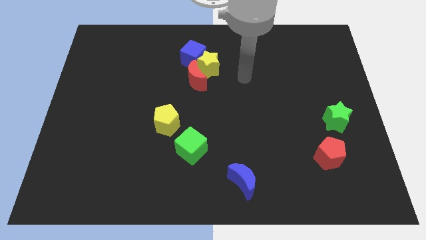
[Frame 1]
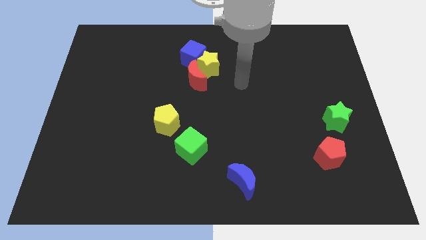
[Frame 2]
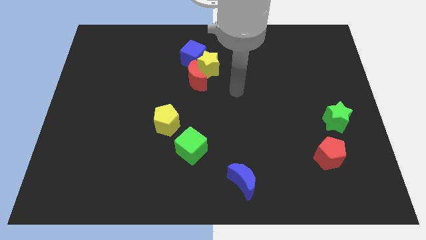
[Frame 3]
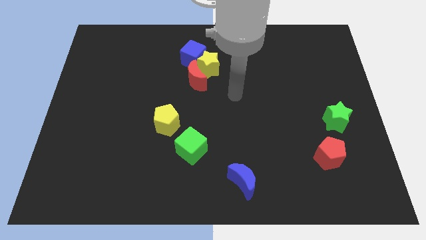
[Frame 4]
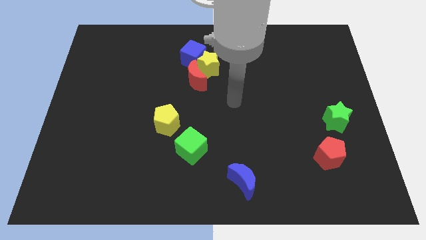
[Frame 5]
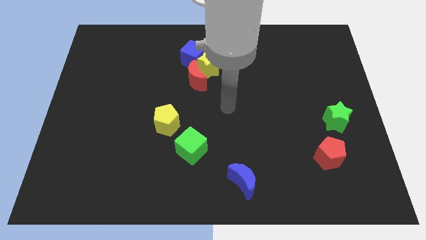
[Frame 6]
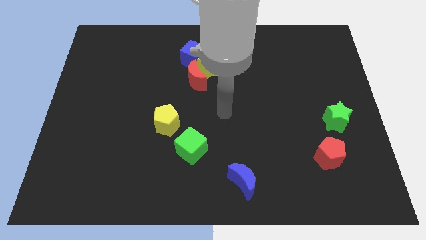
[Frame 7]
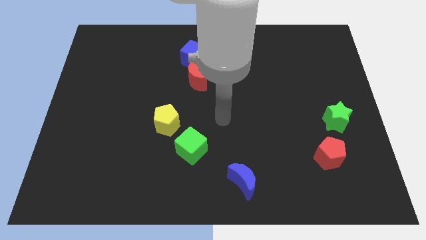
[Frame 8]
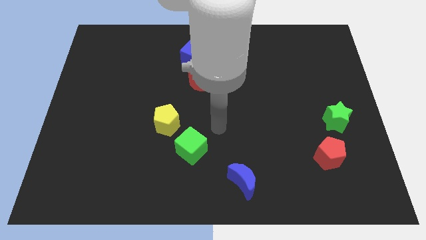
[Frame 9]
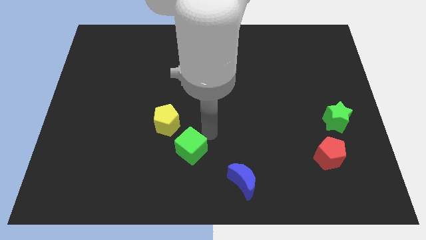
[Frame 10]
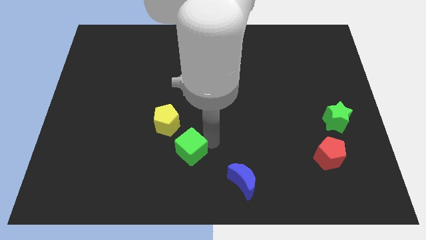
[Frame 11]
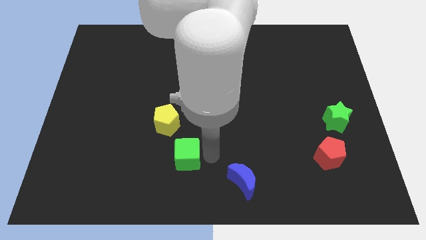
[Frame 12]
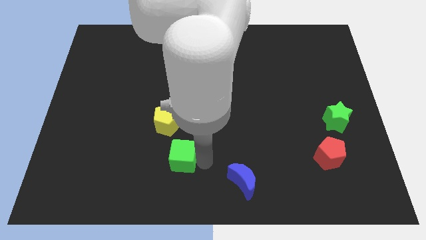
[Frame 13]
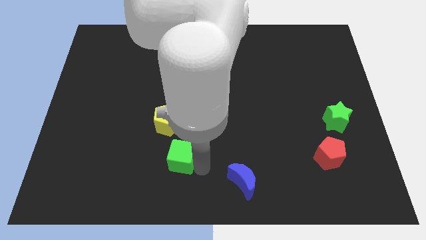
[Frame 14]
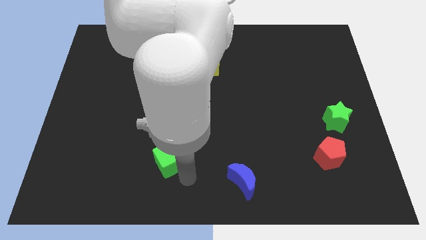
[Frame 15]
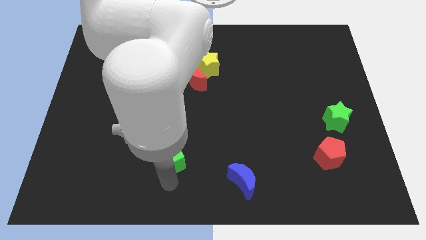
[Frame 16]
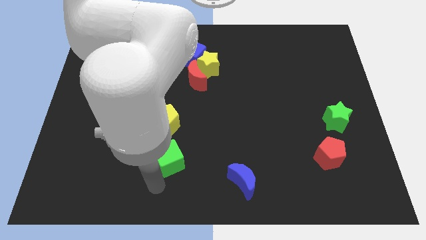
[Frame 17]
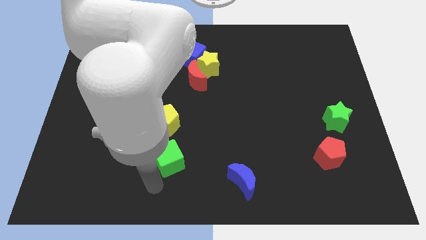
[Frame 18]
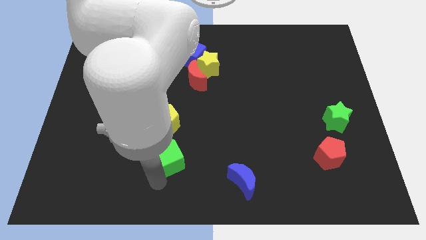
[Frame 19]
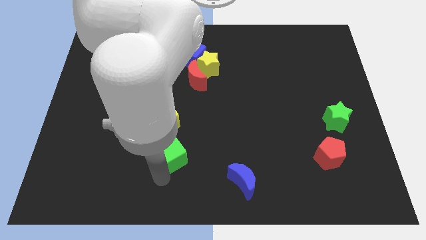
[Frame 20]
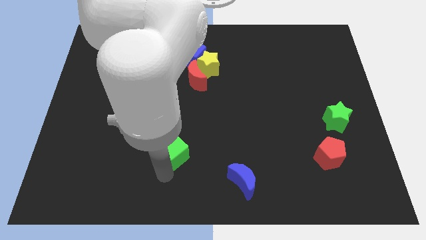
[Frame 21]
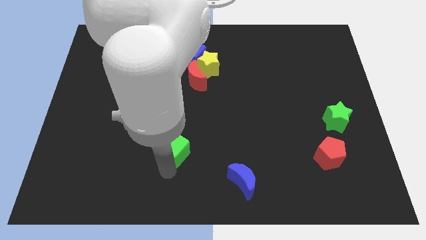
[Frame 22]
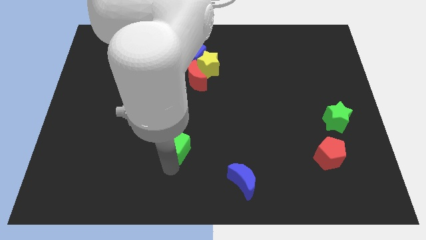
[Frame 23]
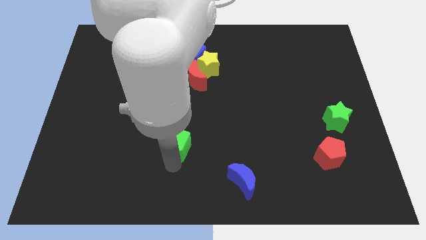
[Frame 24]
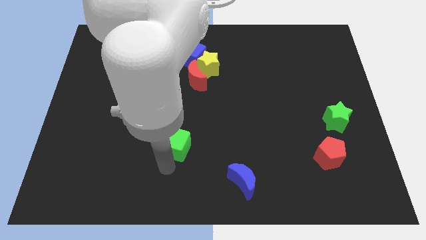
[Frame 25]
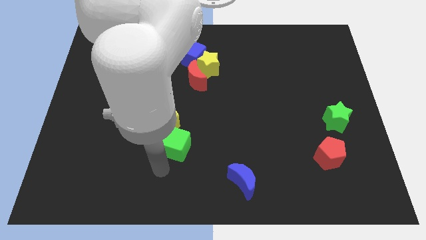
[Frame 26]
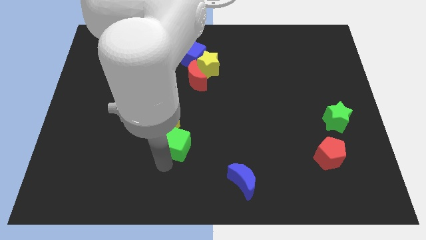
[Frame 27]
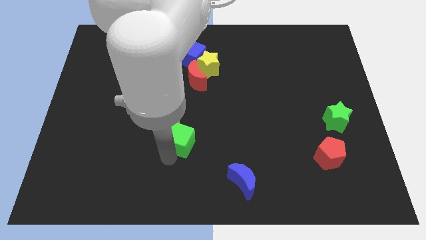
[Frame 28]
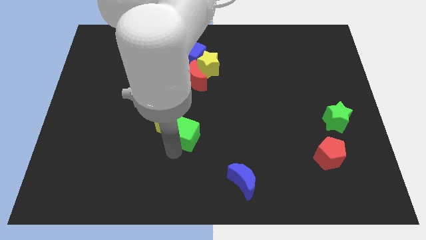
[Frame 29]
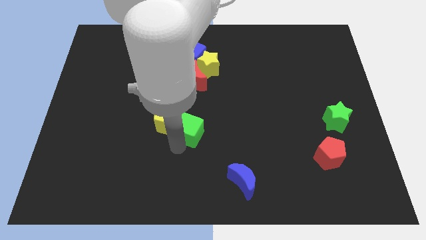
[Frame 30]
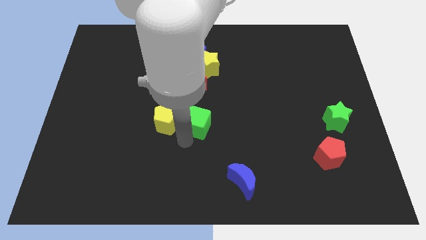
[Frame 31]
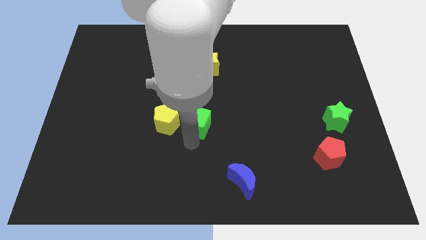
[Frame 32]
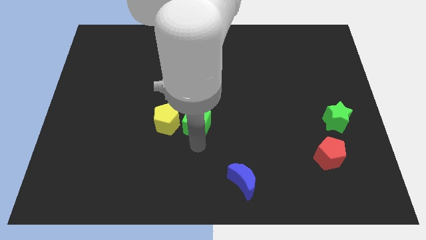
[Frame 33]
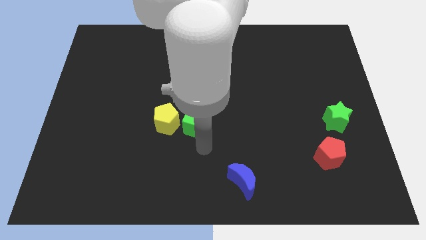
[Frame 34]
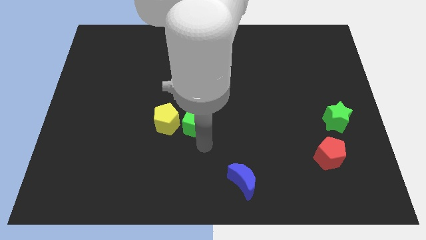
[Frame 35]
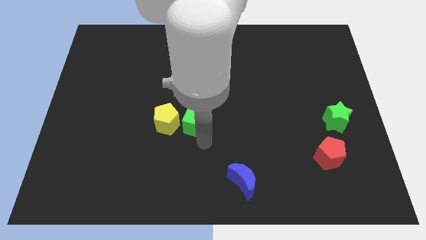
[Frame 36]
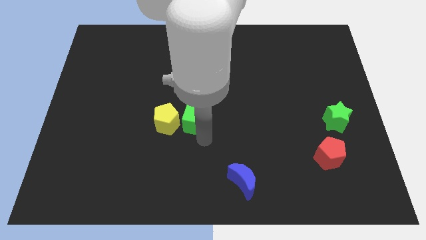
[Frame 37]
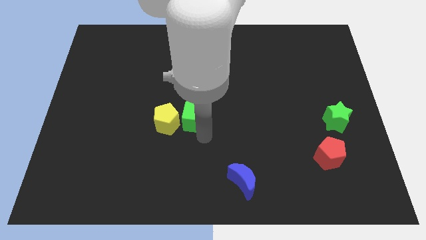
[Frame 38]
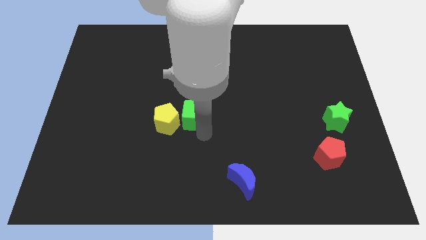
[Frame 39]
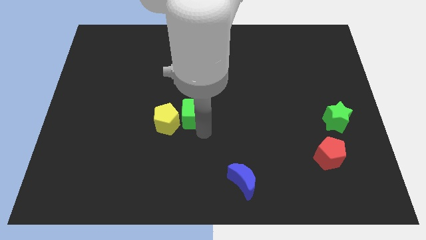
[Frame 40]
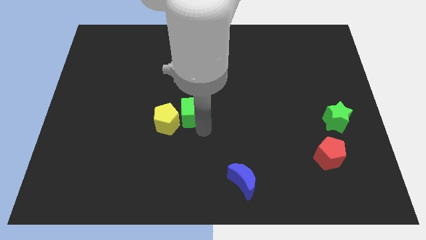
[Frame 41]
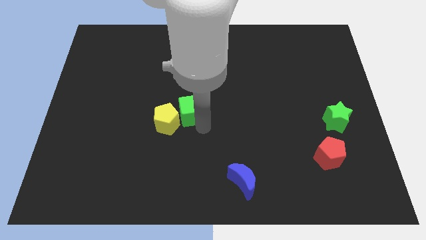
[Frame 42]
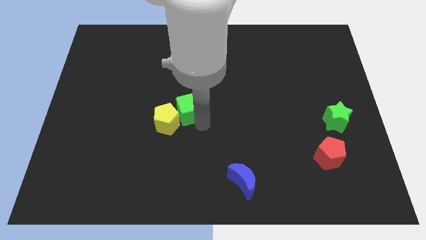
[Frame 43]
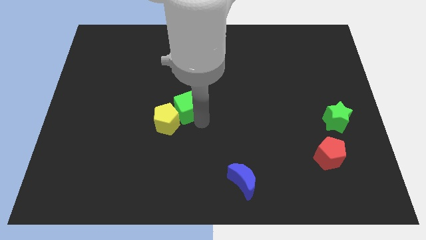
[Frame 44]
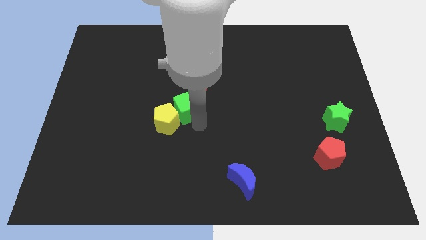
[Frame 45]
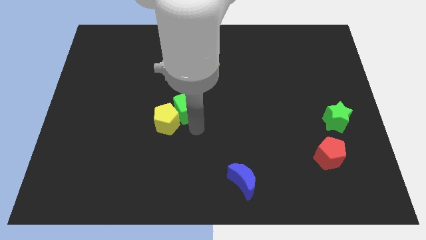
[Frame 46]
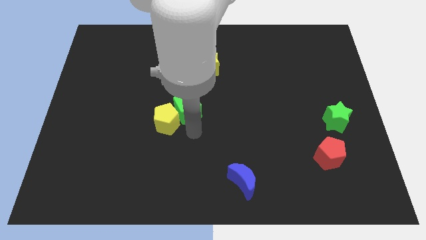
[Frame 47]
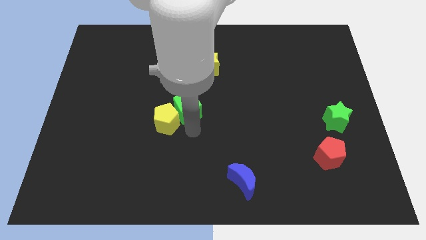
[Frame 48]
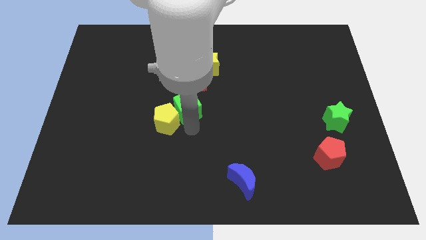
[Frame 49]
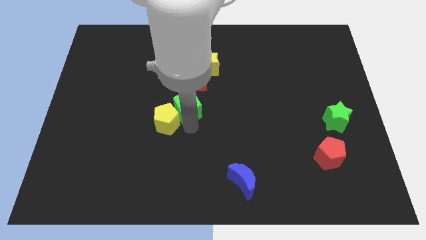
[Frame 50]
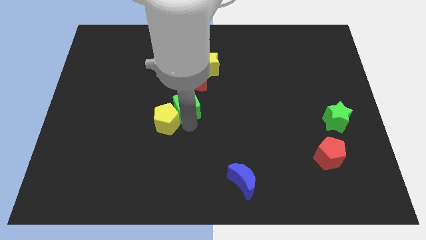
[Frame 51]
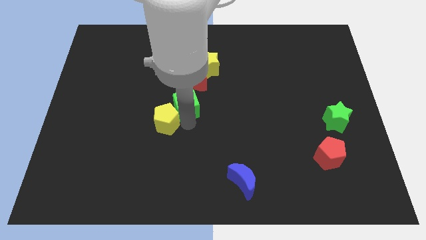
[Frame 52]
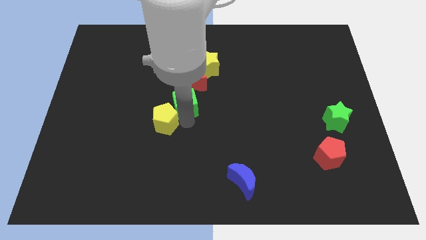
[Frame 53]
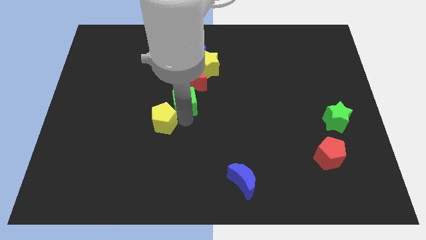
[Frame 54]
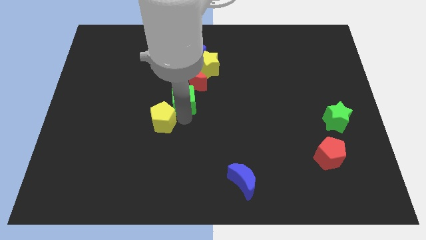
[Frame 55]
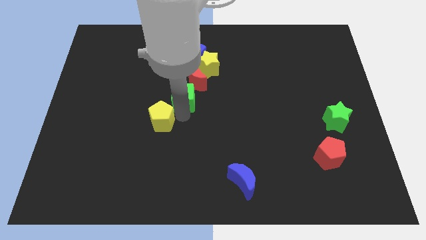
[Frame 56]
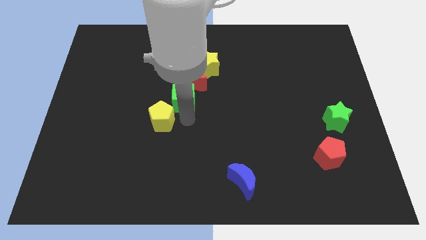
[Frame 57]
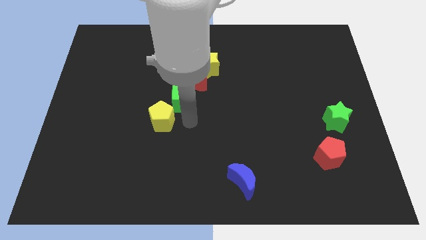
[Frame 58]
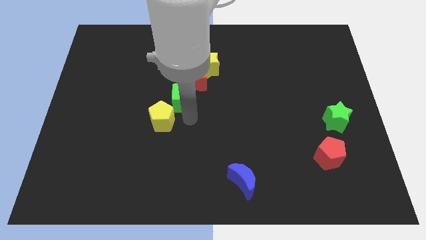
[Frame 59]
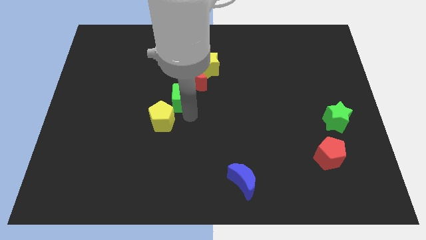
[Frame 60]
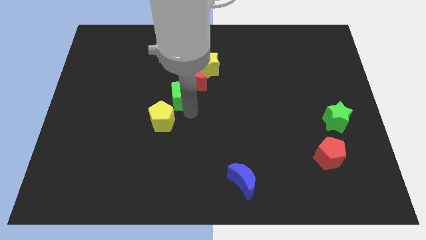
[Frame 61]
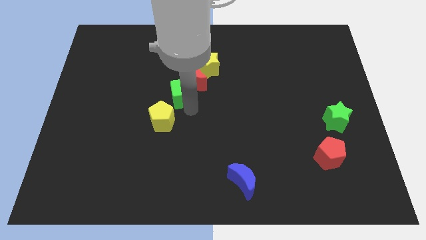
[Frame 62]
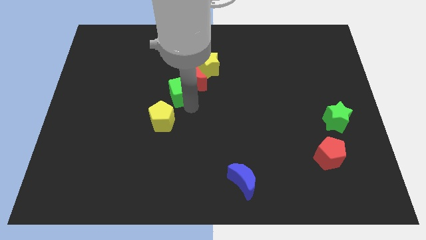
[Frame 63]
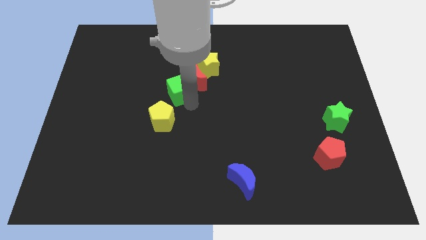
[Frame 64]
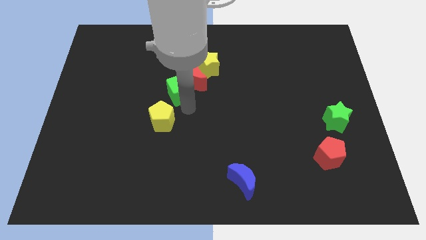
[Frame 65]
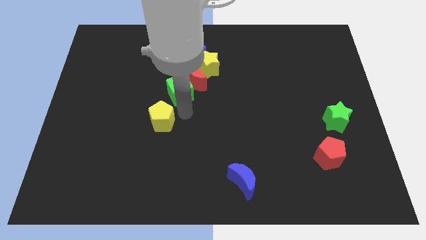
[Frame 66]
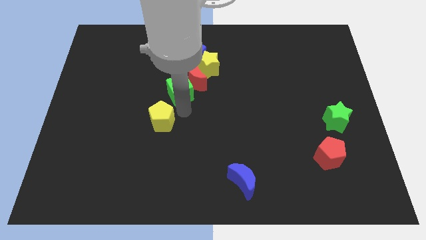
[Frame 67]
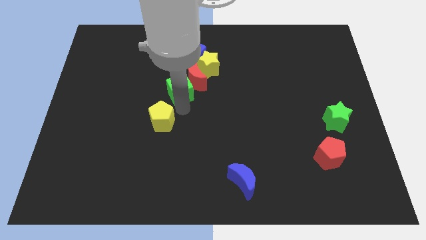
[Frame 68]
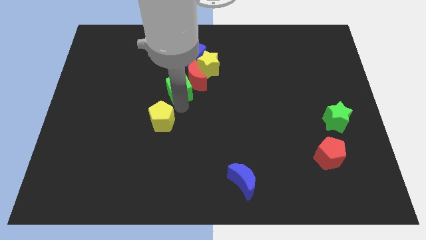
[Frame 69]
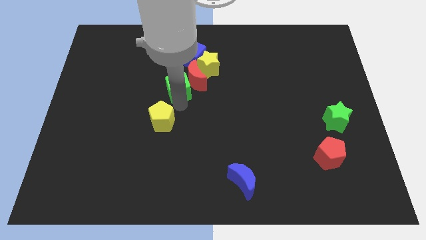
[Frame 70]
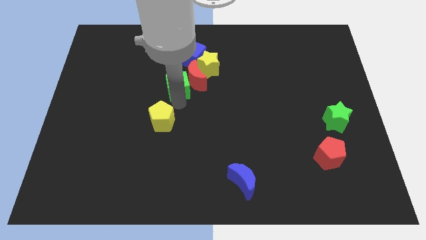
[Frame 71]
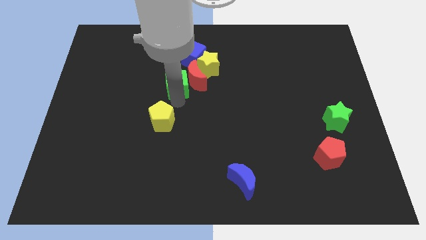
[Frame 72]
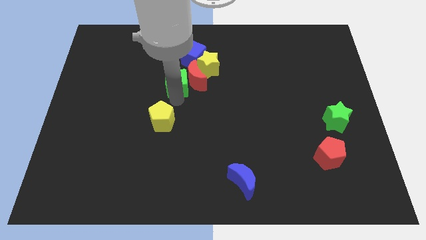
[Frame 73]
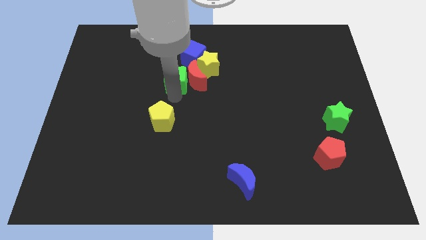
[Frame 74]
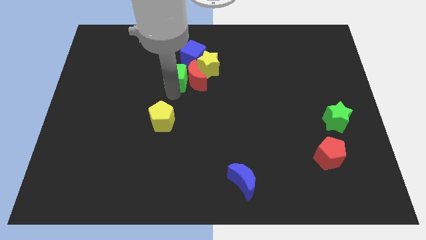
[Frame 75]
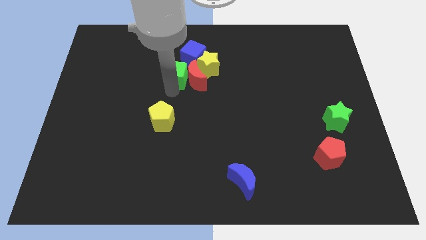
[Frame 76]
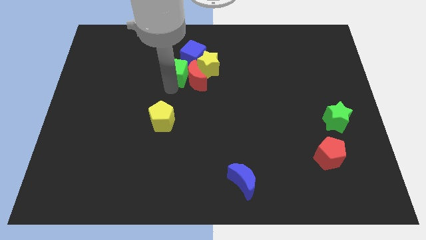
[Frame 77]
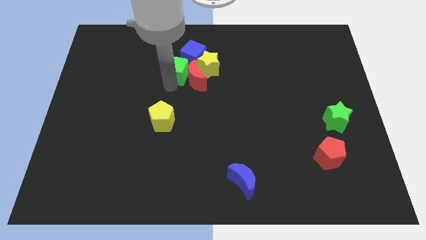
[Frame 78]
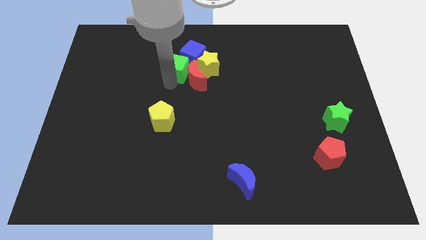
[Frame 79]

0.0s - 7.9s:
put the green cube towards the blue cube

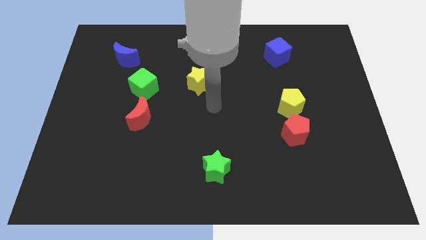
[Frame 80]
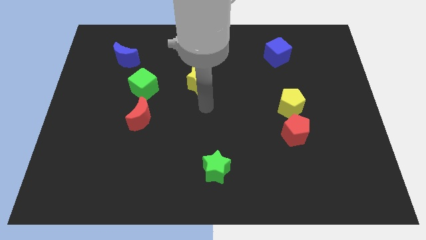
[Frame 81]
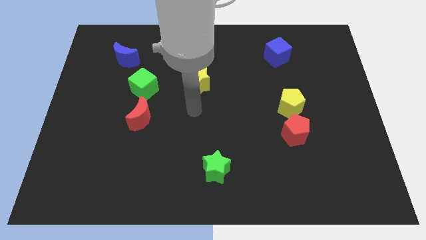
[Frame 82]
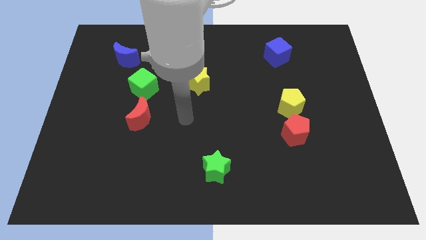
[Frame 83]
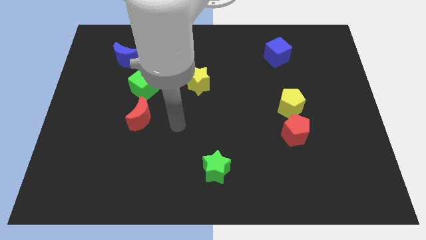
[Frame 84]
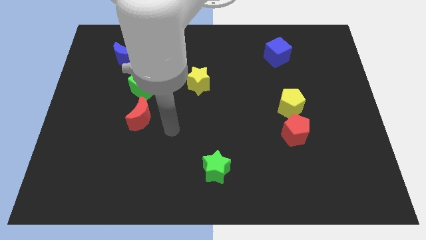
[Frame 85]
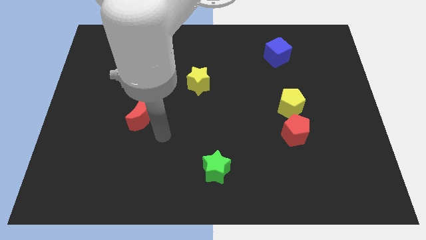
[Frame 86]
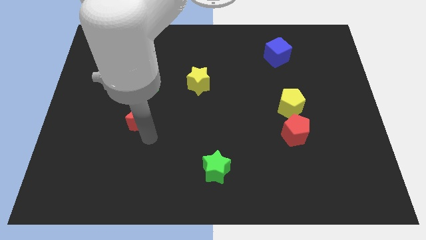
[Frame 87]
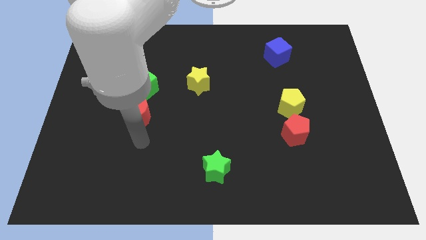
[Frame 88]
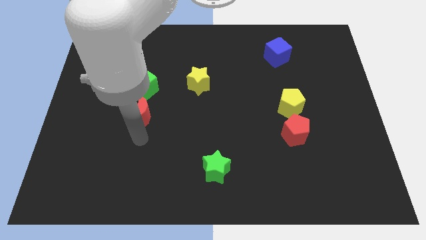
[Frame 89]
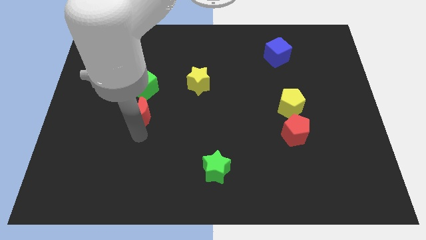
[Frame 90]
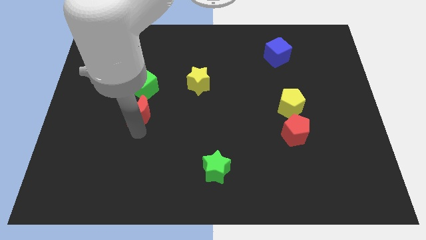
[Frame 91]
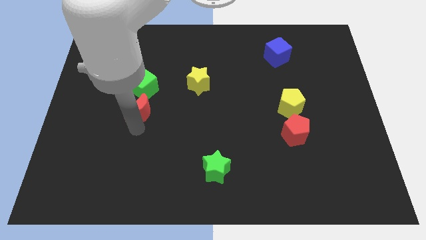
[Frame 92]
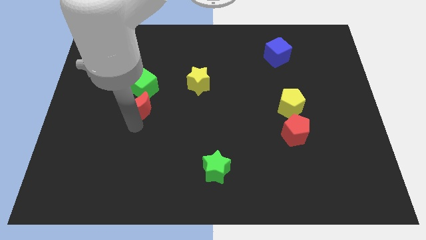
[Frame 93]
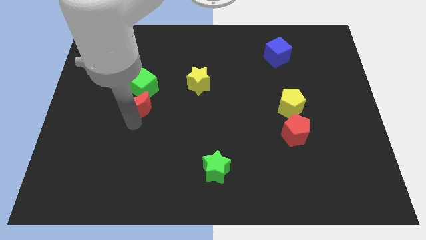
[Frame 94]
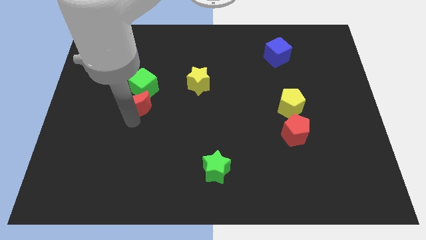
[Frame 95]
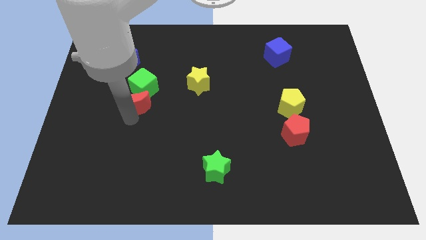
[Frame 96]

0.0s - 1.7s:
slide the red moon to the green cube
